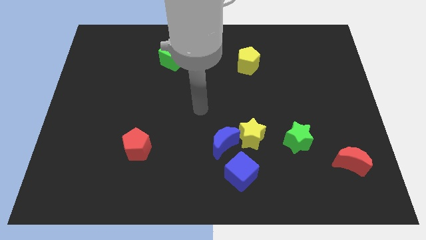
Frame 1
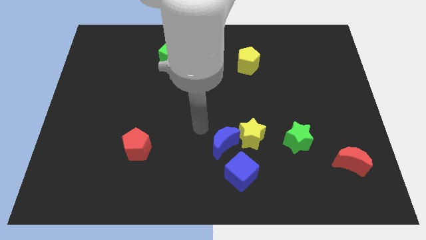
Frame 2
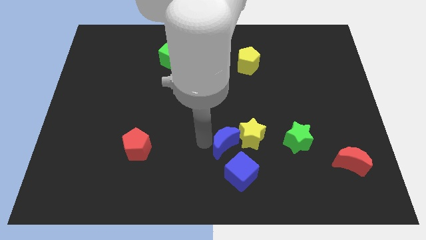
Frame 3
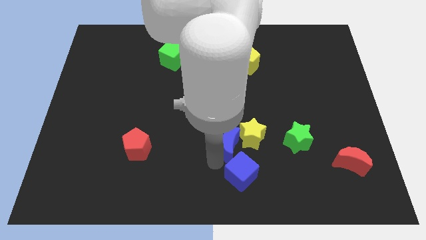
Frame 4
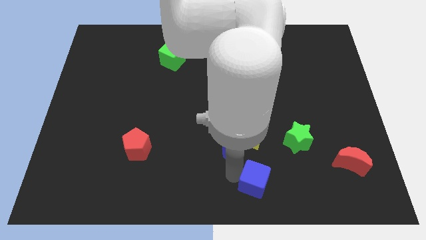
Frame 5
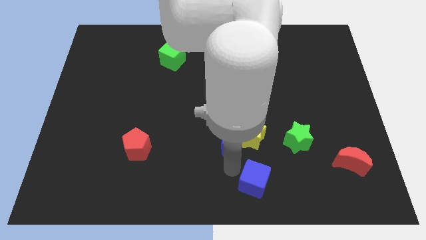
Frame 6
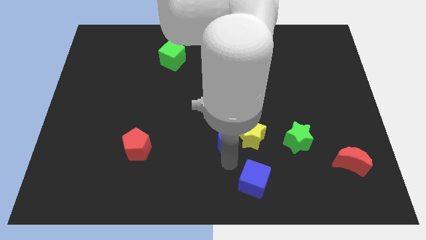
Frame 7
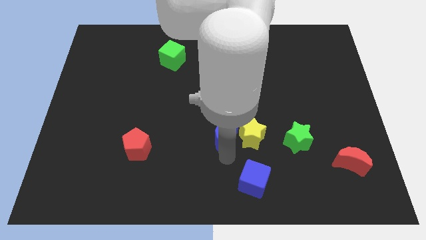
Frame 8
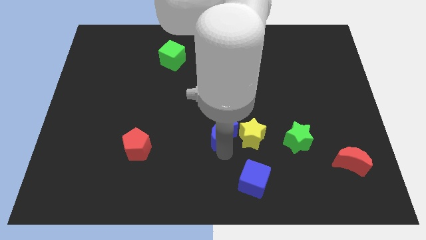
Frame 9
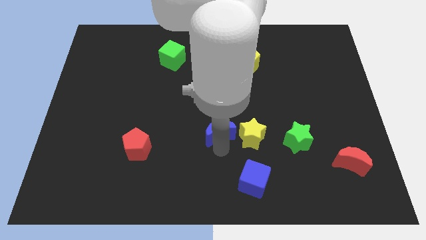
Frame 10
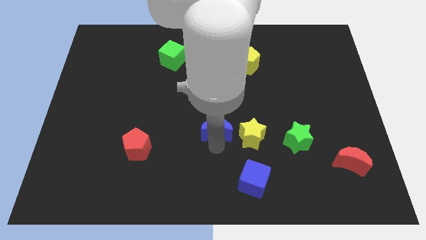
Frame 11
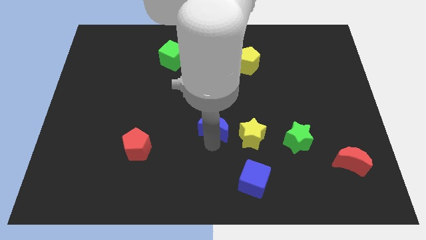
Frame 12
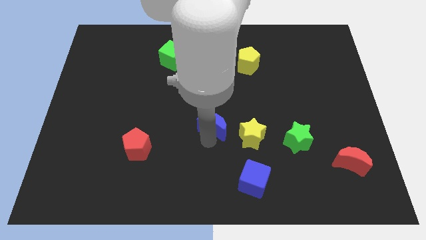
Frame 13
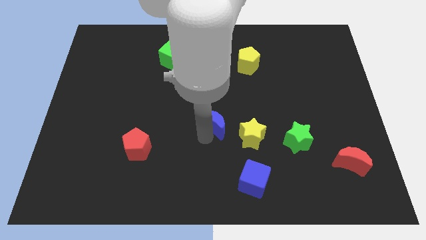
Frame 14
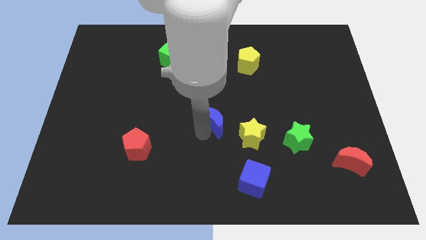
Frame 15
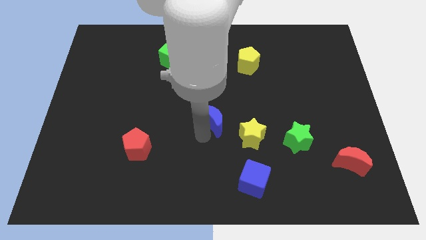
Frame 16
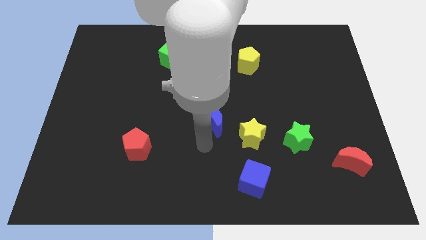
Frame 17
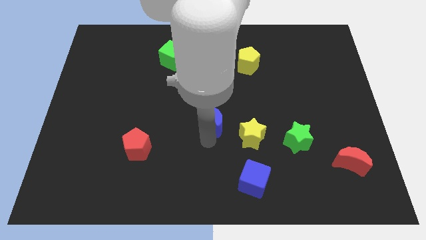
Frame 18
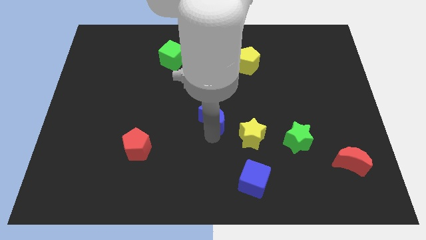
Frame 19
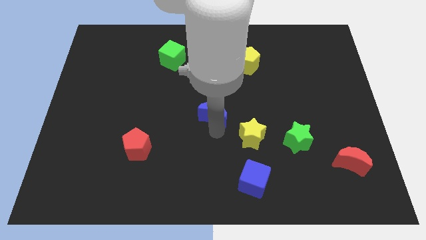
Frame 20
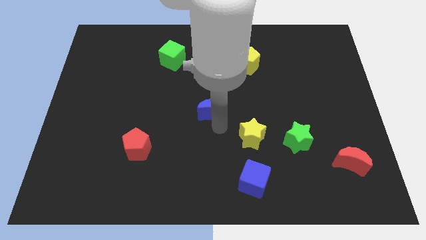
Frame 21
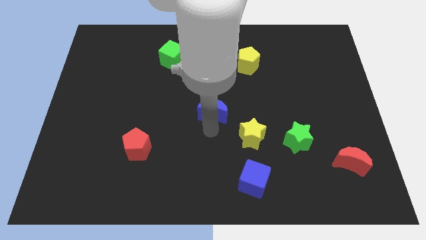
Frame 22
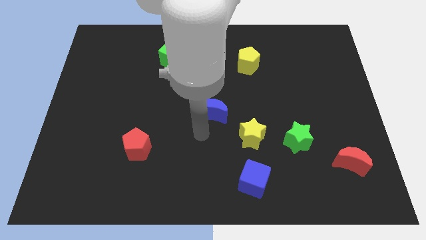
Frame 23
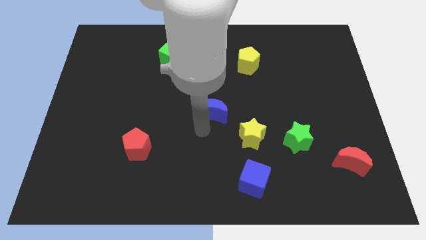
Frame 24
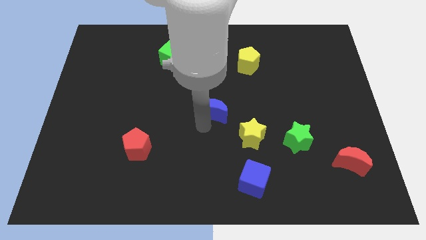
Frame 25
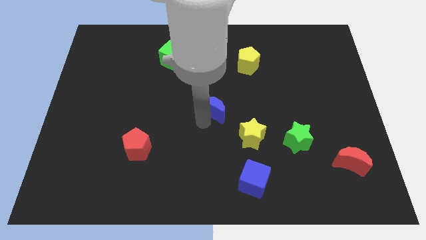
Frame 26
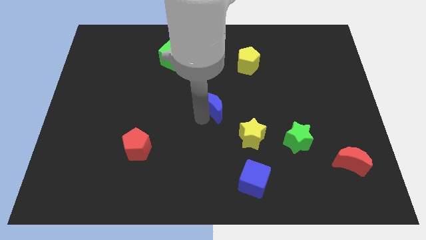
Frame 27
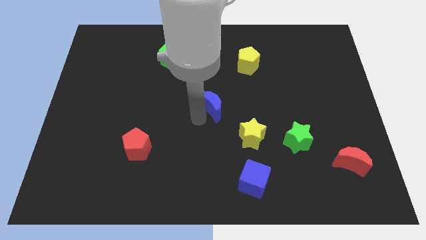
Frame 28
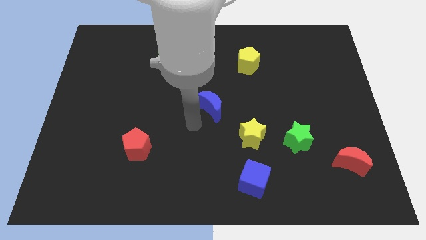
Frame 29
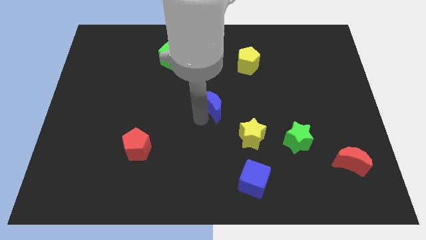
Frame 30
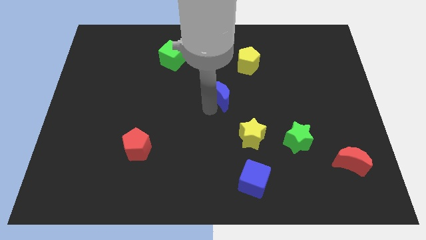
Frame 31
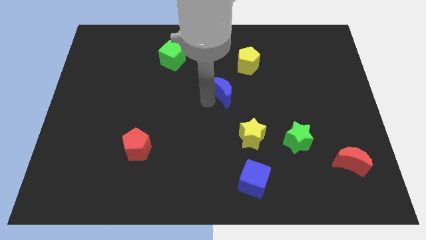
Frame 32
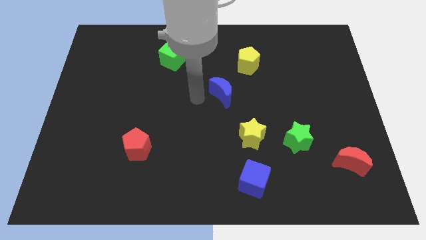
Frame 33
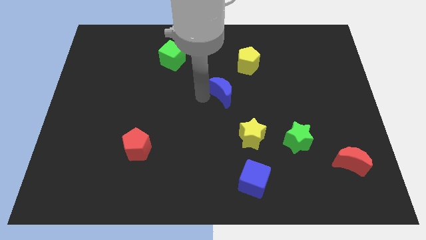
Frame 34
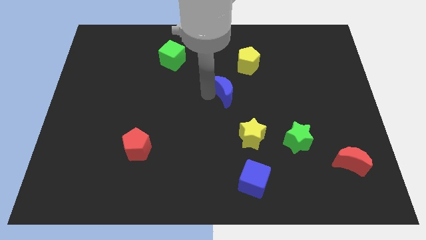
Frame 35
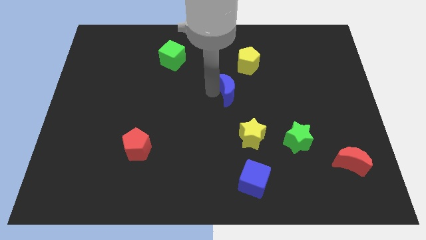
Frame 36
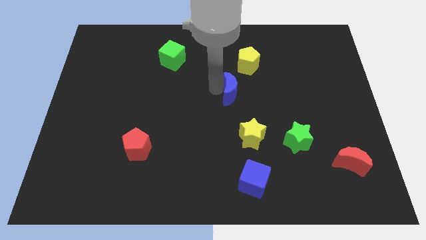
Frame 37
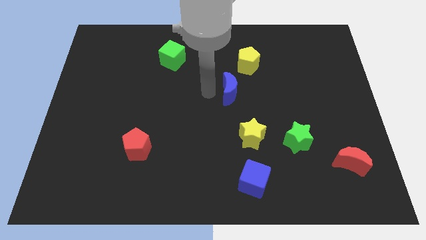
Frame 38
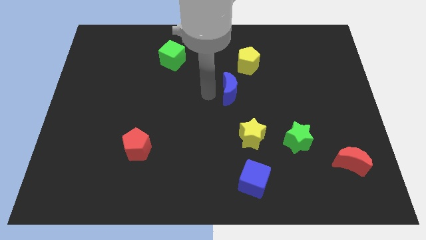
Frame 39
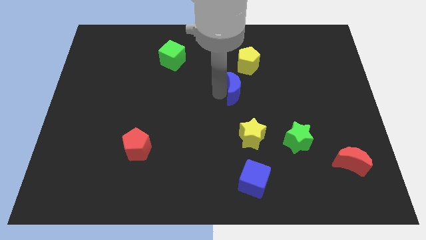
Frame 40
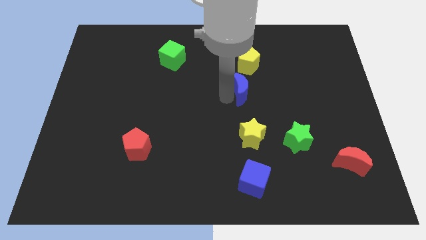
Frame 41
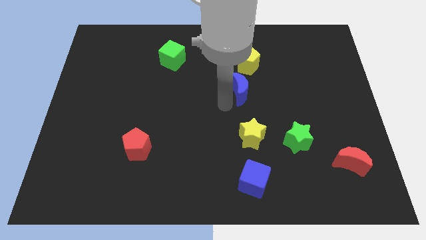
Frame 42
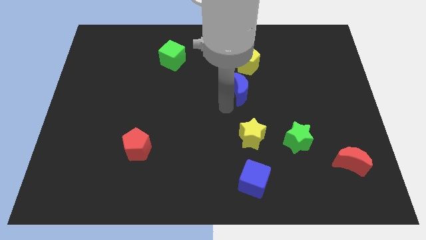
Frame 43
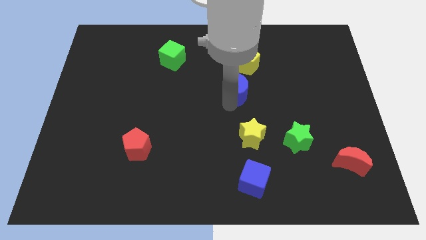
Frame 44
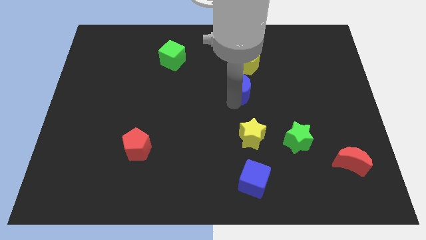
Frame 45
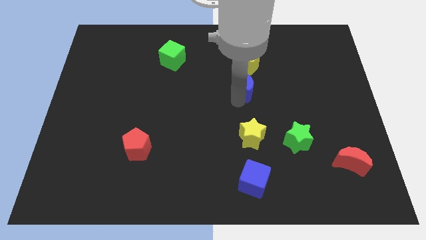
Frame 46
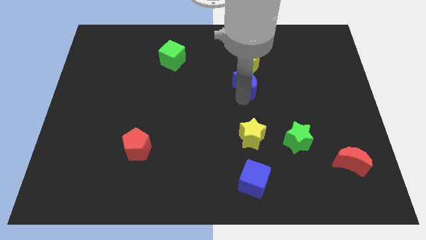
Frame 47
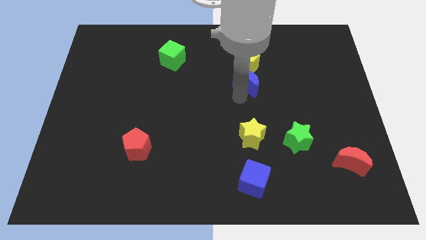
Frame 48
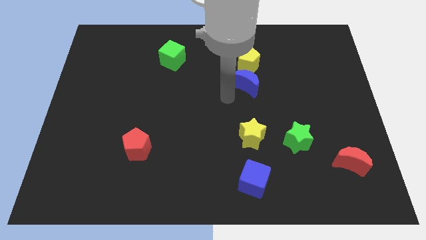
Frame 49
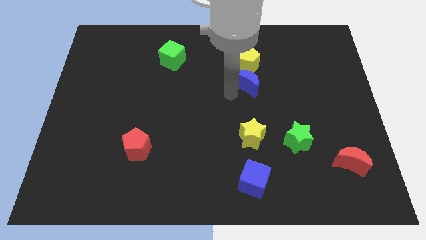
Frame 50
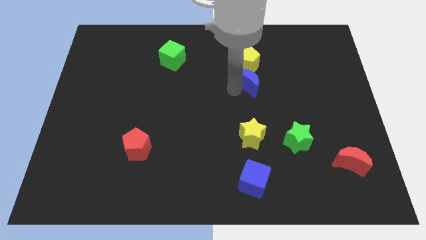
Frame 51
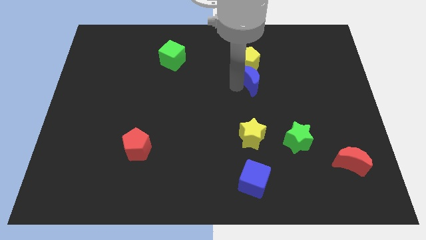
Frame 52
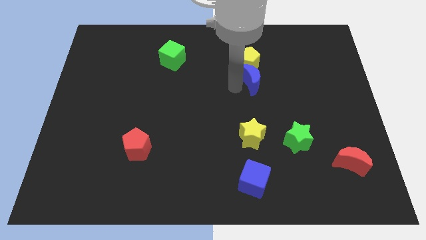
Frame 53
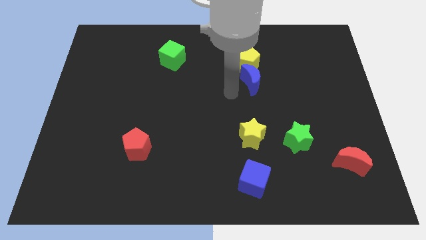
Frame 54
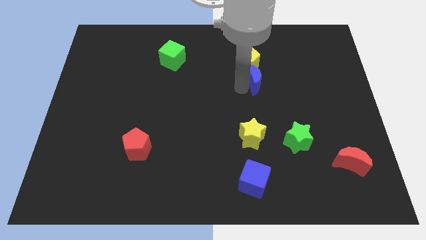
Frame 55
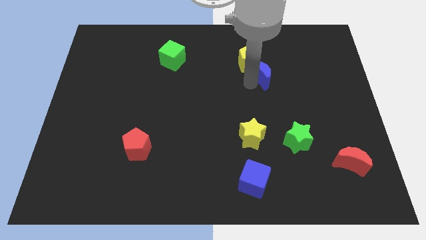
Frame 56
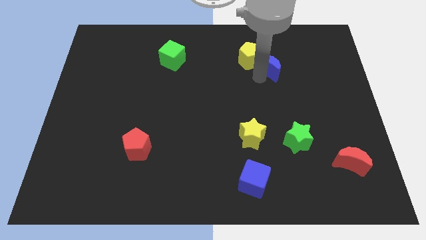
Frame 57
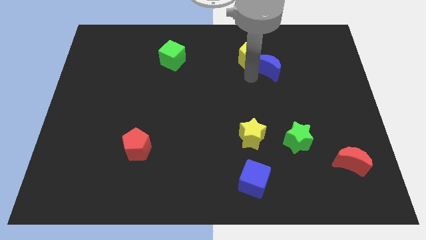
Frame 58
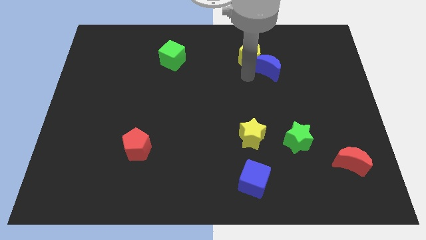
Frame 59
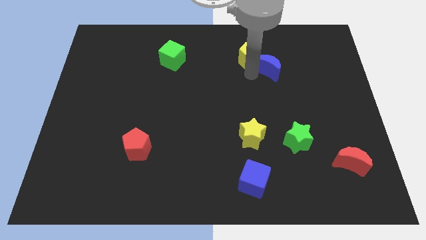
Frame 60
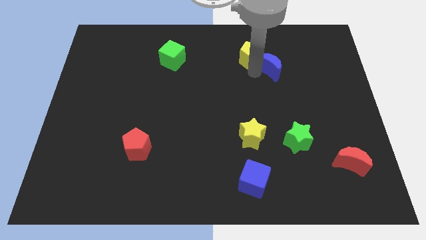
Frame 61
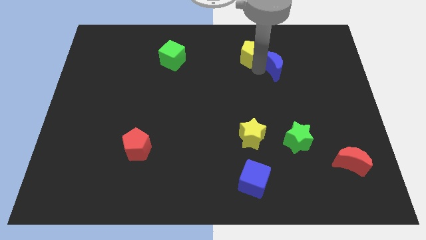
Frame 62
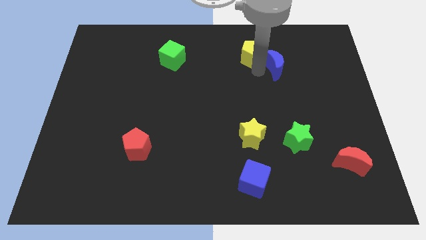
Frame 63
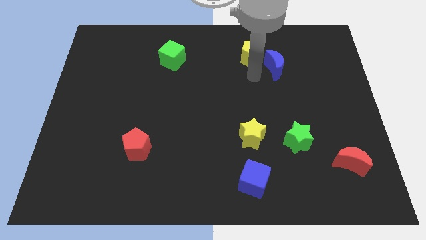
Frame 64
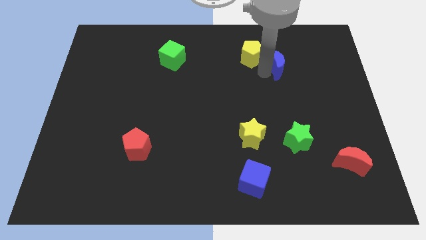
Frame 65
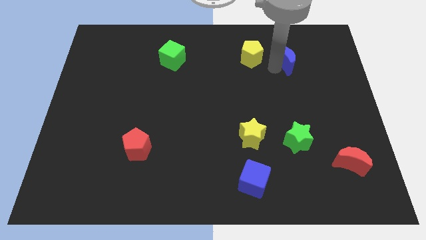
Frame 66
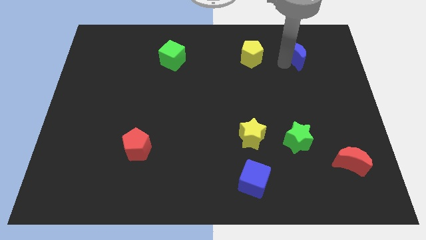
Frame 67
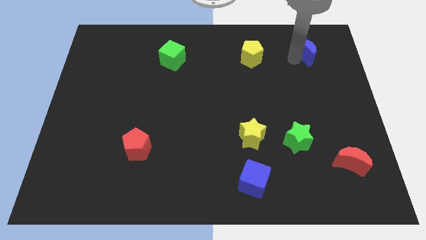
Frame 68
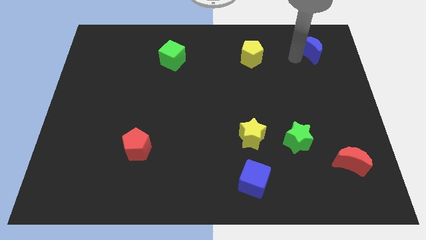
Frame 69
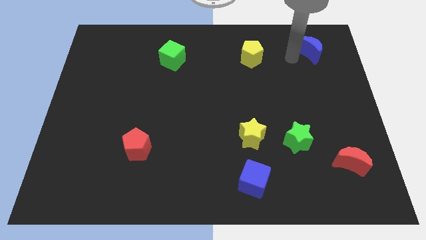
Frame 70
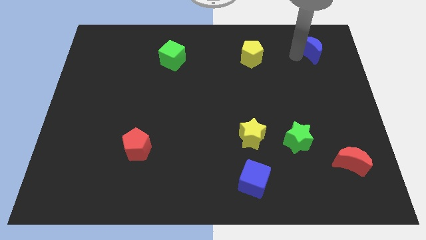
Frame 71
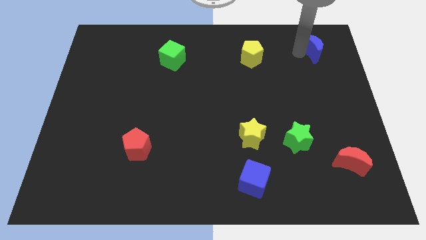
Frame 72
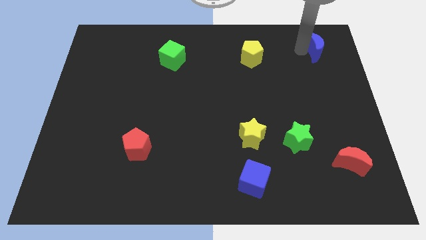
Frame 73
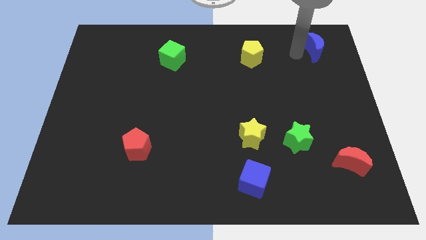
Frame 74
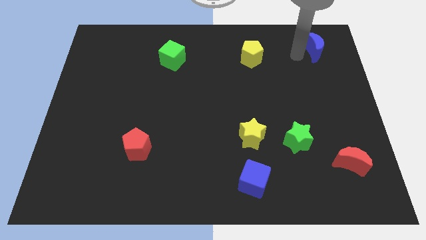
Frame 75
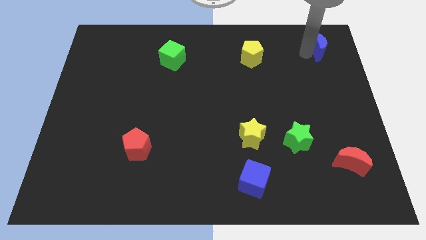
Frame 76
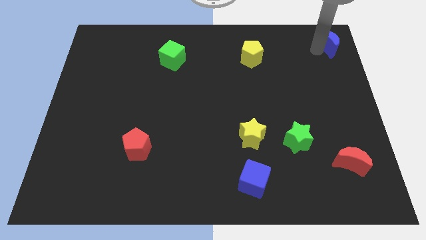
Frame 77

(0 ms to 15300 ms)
slide the blue moon to the top right corner
